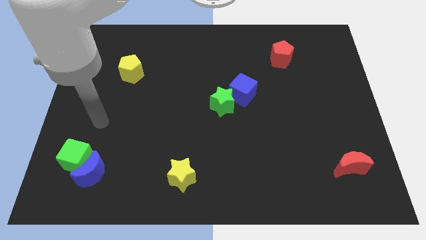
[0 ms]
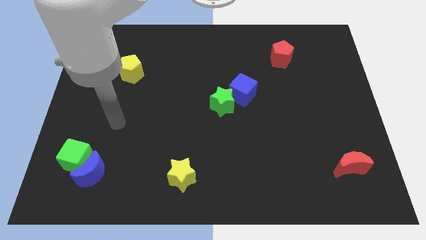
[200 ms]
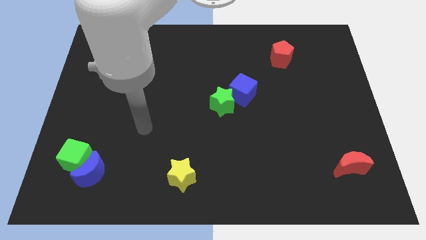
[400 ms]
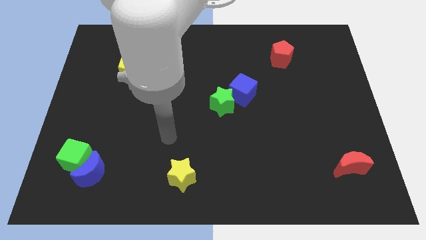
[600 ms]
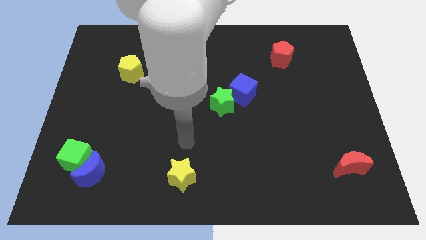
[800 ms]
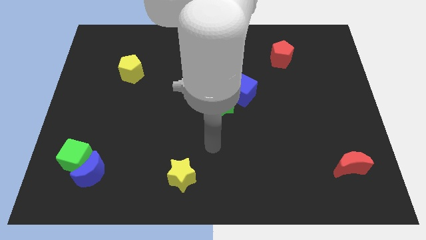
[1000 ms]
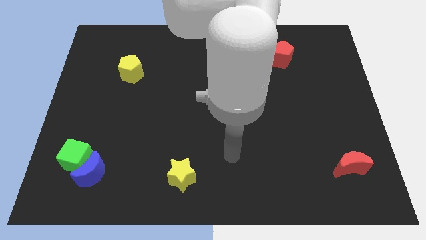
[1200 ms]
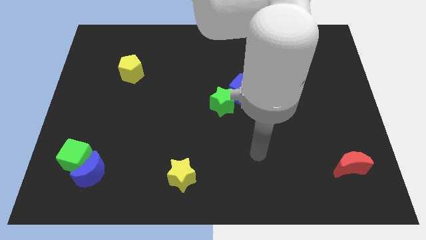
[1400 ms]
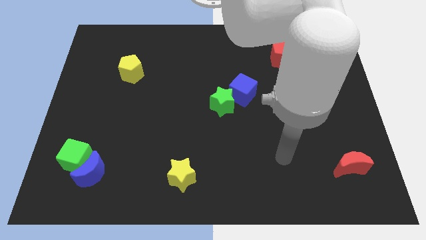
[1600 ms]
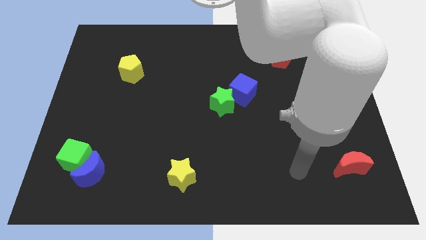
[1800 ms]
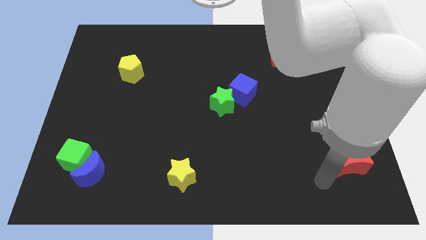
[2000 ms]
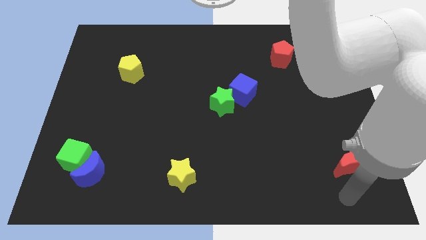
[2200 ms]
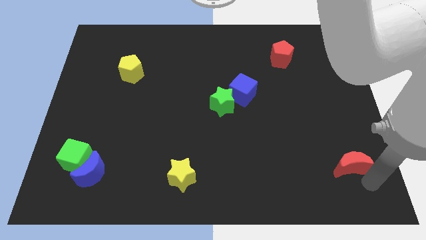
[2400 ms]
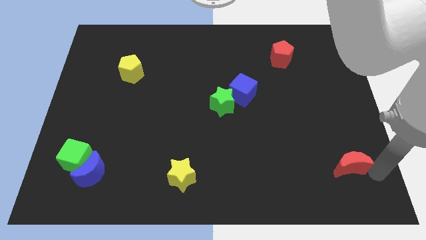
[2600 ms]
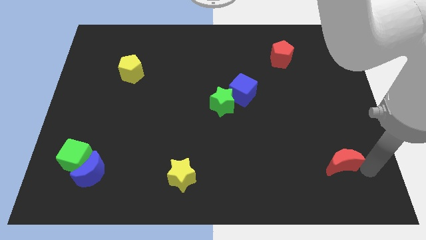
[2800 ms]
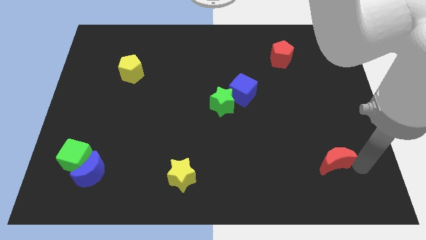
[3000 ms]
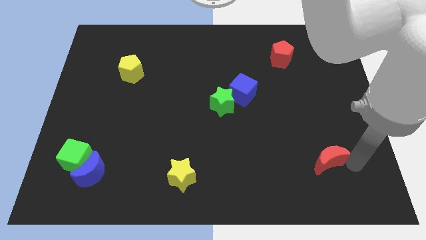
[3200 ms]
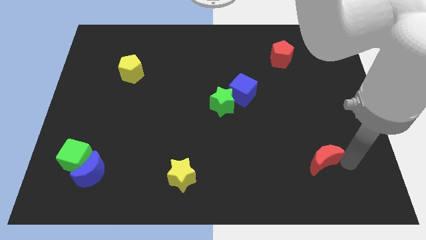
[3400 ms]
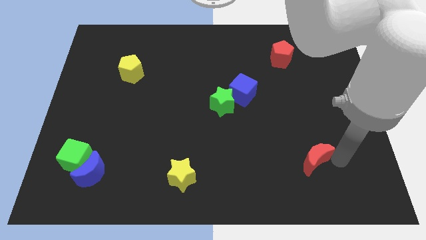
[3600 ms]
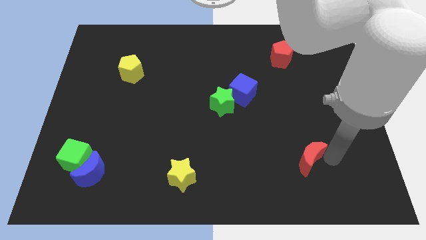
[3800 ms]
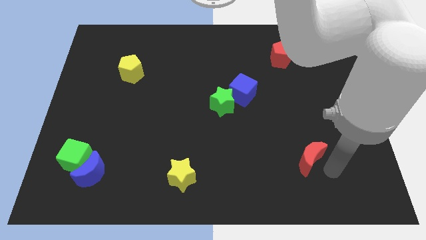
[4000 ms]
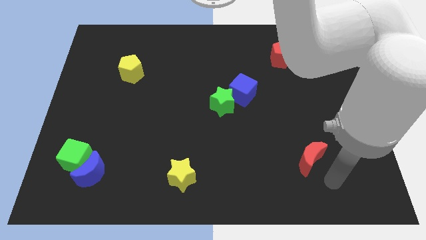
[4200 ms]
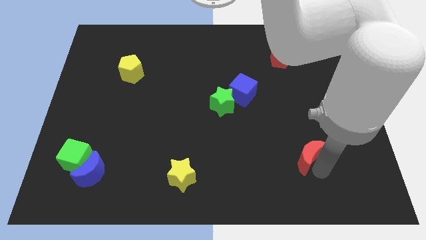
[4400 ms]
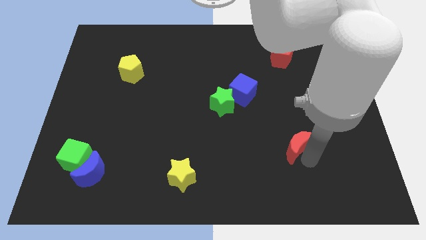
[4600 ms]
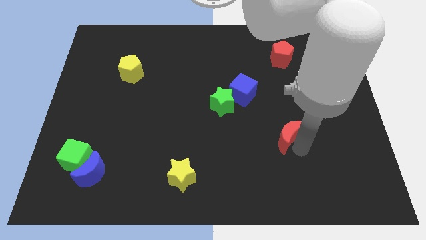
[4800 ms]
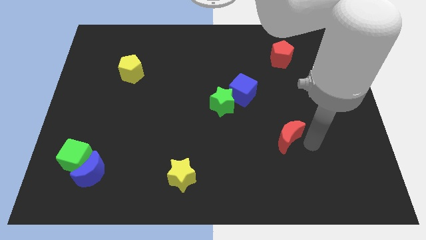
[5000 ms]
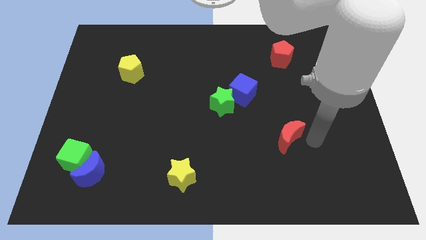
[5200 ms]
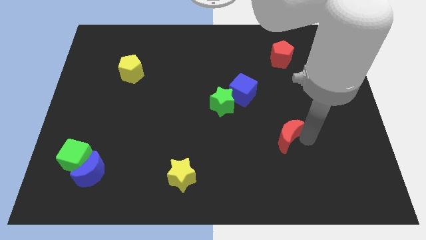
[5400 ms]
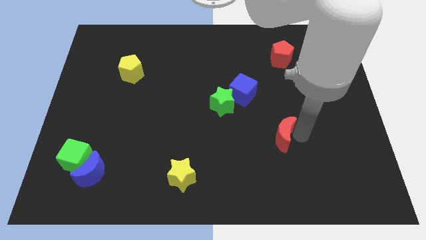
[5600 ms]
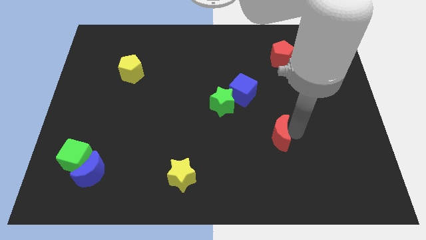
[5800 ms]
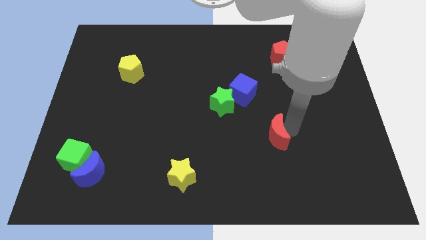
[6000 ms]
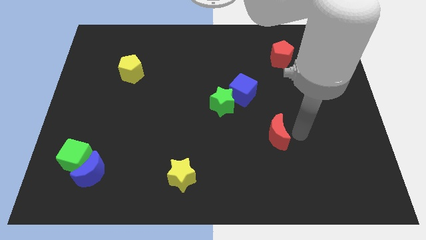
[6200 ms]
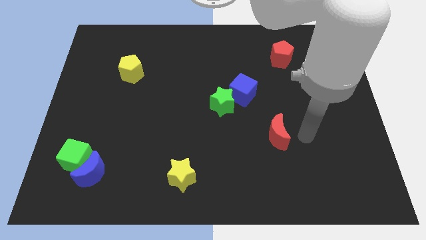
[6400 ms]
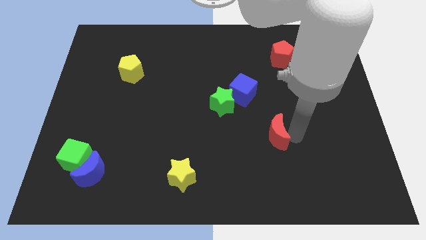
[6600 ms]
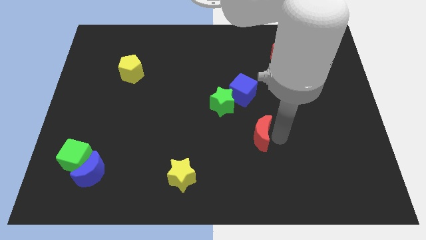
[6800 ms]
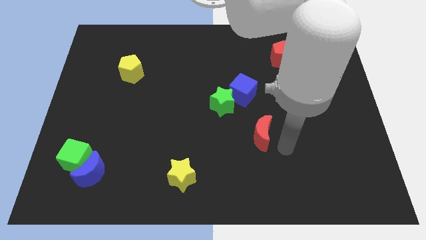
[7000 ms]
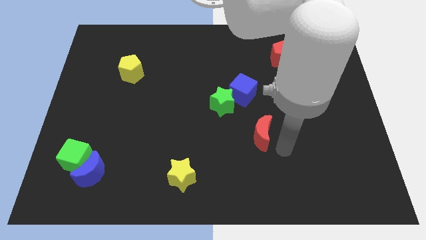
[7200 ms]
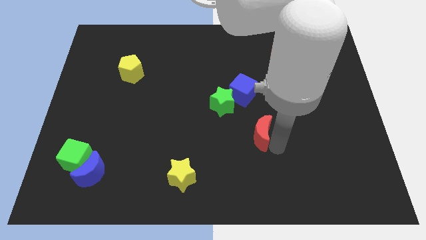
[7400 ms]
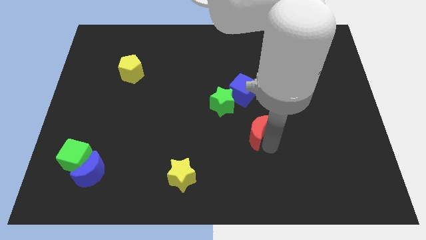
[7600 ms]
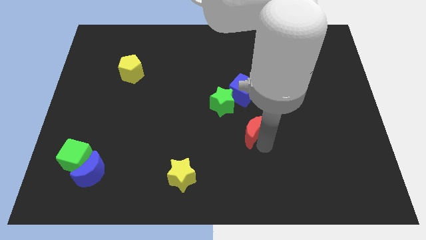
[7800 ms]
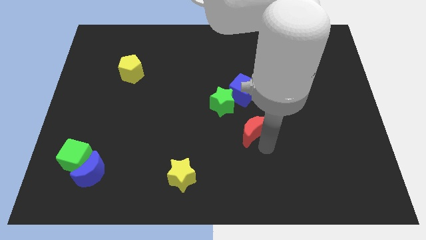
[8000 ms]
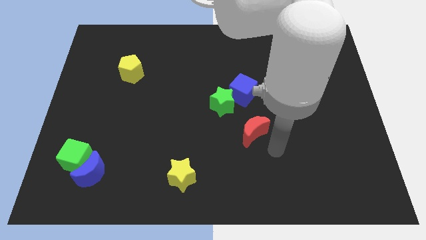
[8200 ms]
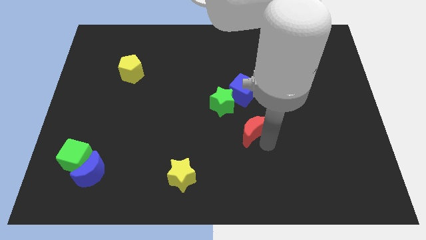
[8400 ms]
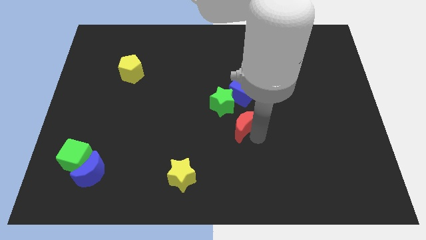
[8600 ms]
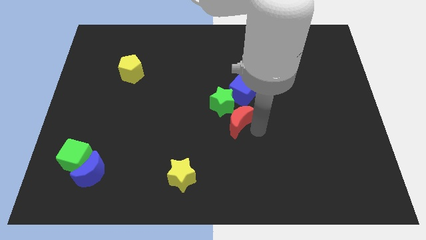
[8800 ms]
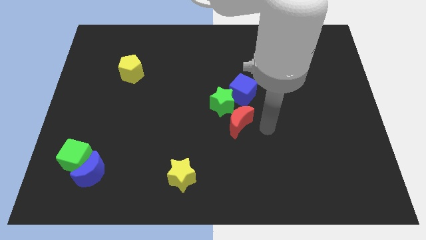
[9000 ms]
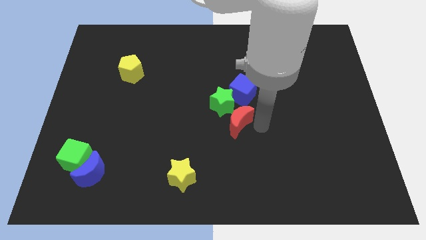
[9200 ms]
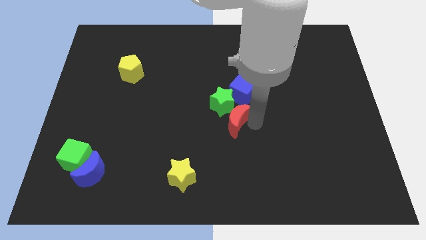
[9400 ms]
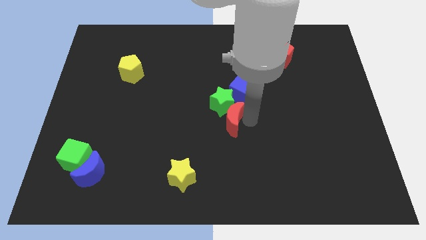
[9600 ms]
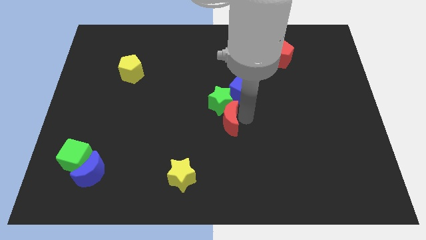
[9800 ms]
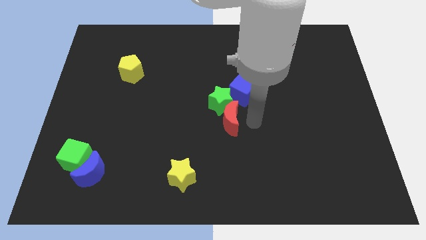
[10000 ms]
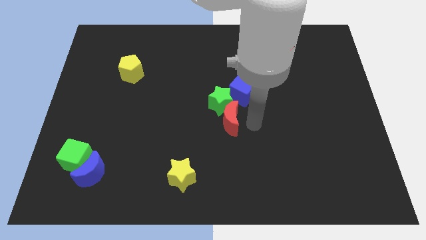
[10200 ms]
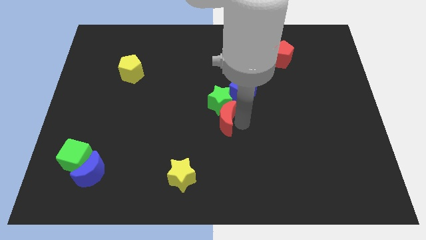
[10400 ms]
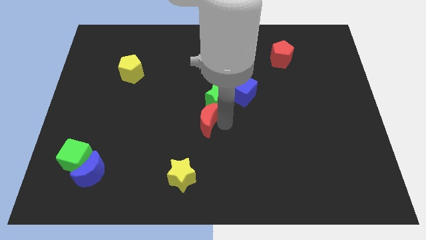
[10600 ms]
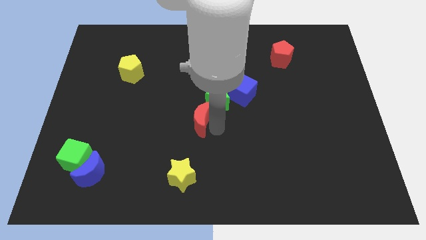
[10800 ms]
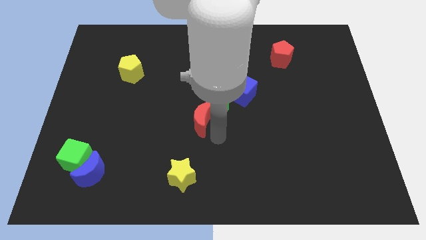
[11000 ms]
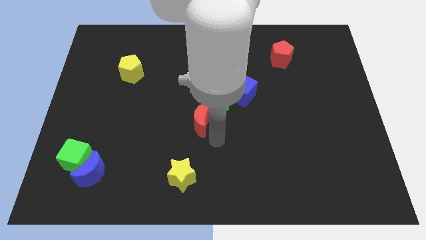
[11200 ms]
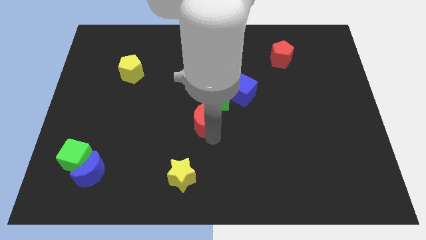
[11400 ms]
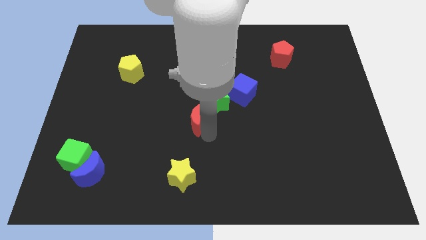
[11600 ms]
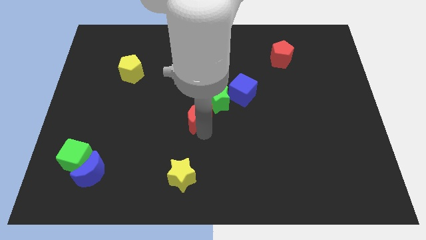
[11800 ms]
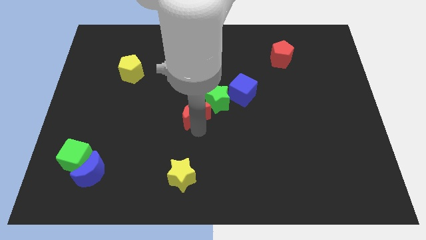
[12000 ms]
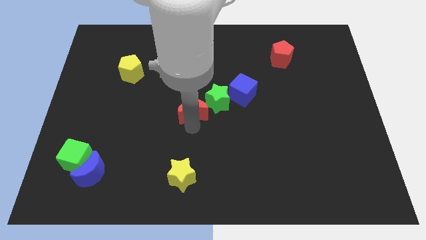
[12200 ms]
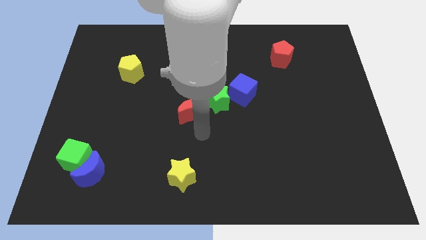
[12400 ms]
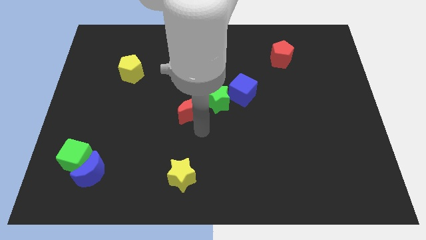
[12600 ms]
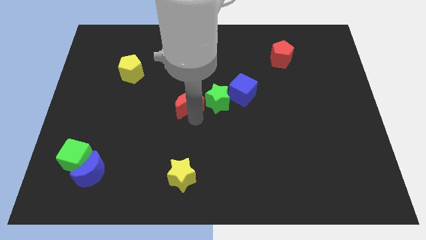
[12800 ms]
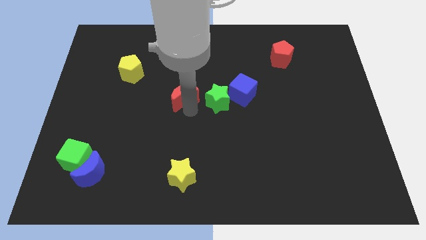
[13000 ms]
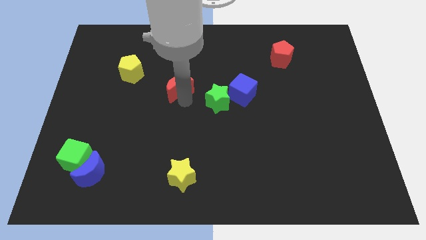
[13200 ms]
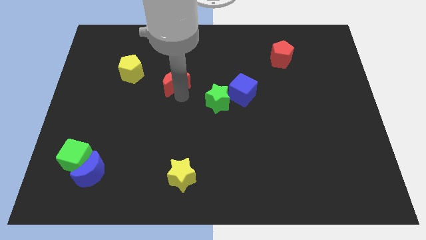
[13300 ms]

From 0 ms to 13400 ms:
move the red moon right of the yellow pentagon
